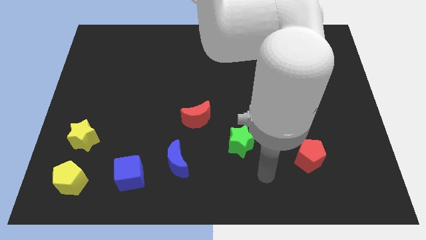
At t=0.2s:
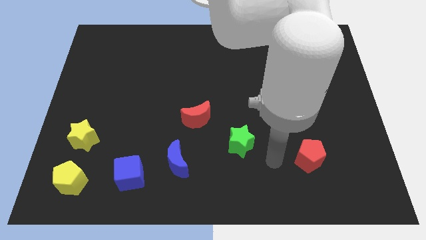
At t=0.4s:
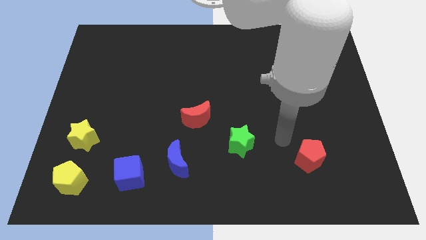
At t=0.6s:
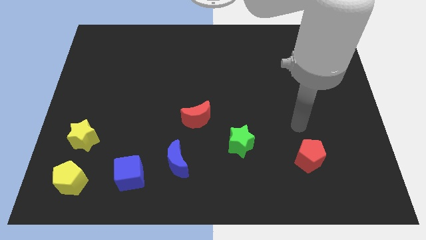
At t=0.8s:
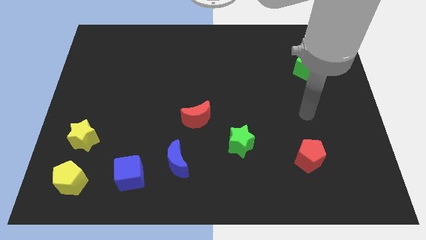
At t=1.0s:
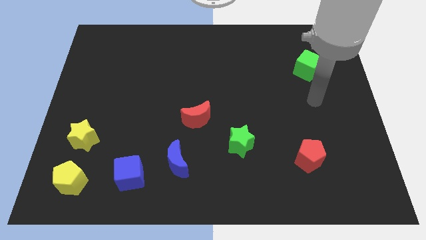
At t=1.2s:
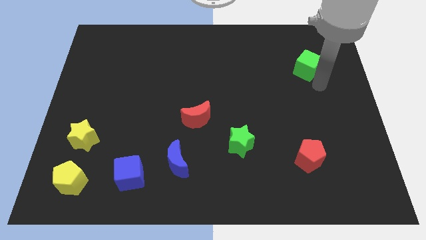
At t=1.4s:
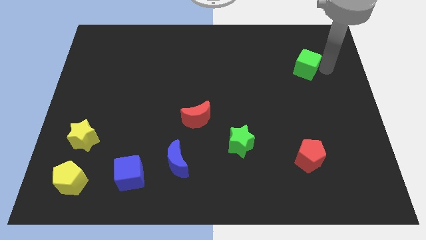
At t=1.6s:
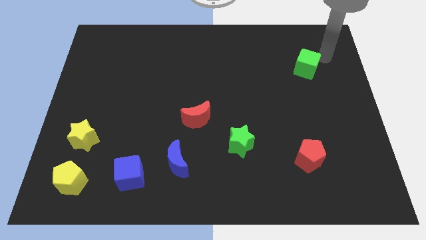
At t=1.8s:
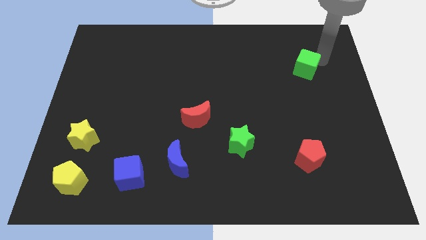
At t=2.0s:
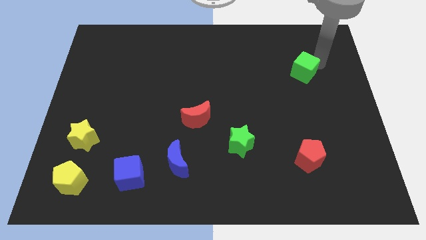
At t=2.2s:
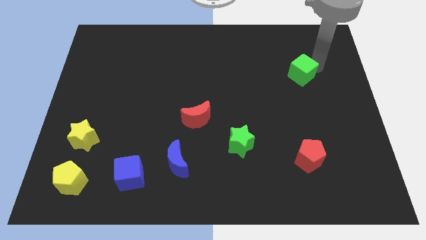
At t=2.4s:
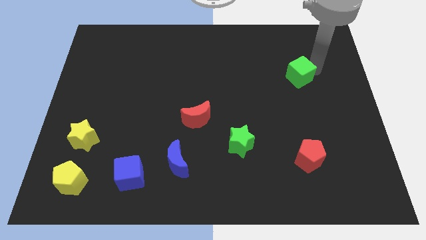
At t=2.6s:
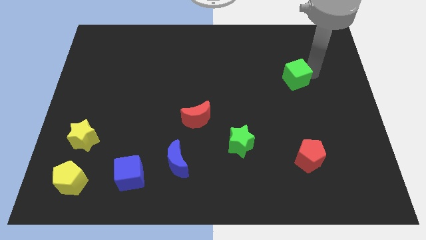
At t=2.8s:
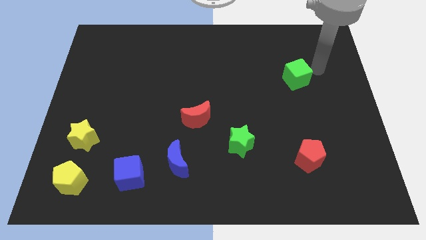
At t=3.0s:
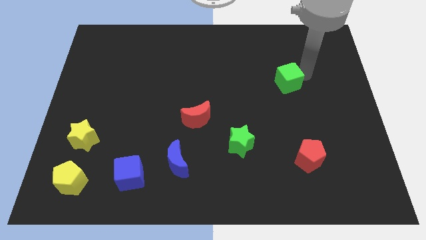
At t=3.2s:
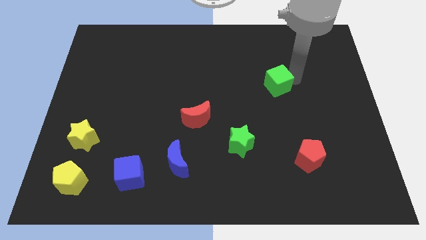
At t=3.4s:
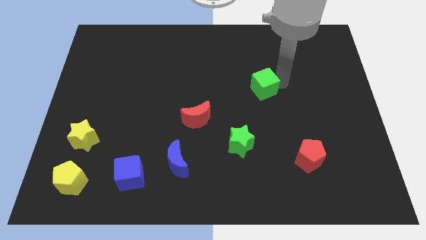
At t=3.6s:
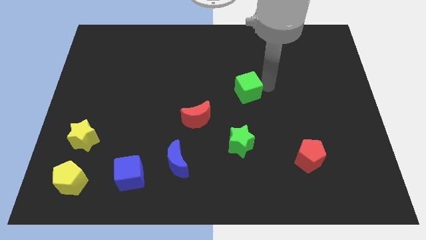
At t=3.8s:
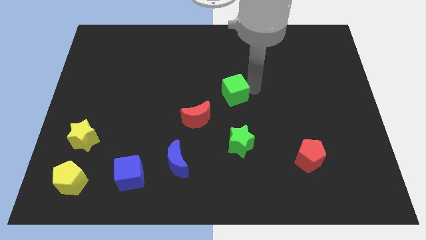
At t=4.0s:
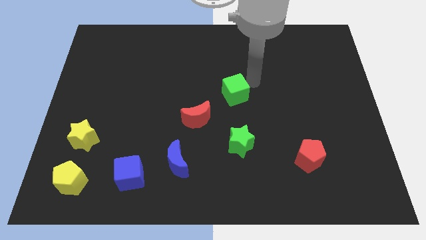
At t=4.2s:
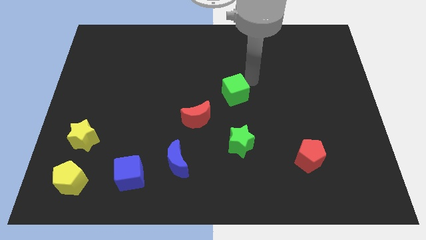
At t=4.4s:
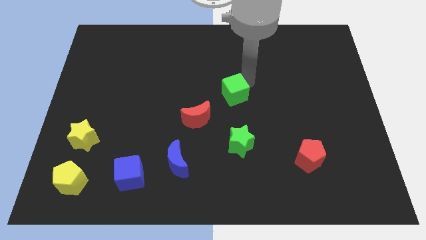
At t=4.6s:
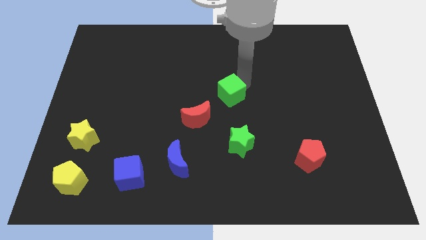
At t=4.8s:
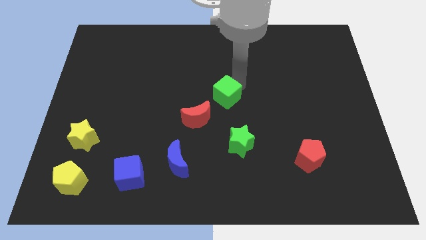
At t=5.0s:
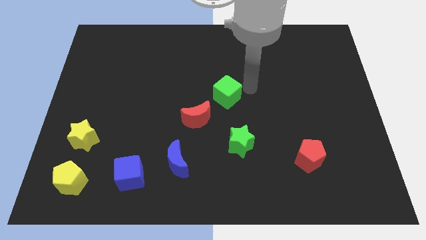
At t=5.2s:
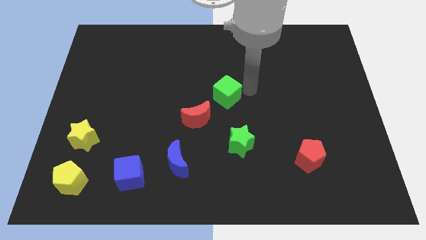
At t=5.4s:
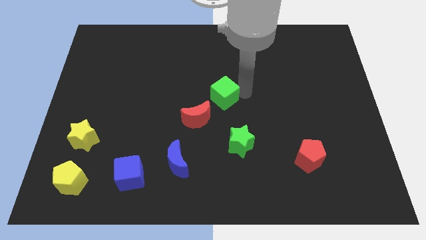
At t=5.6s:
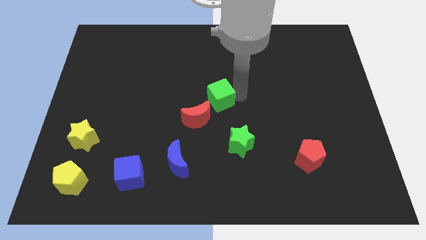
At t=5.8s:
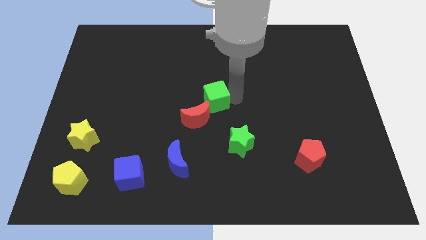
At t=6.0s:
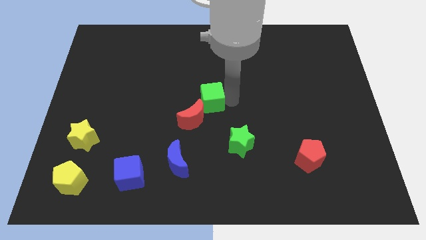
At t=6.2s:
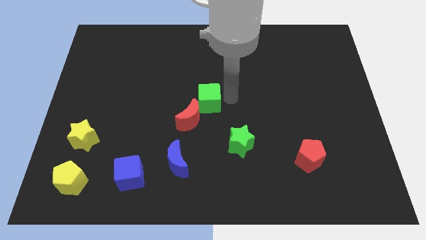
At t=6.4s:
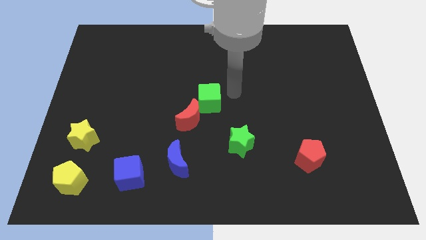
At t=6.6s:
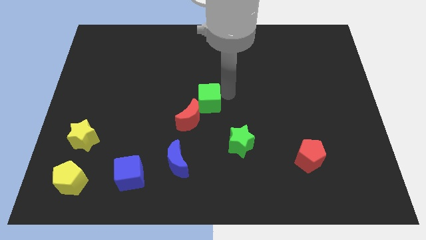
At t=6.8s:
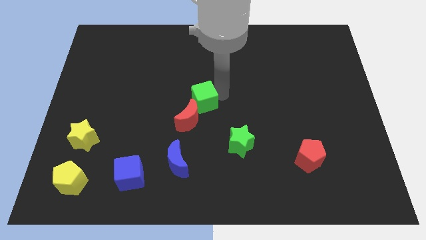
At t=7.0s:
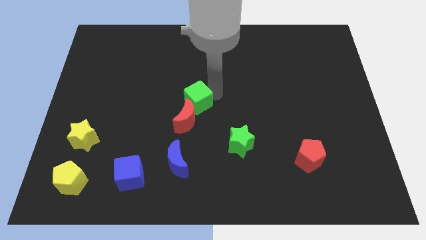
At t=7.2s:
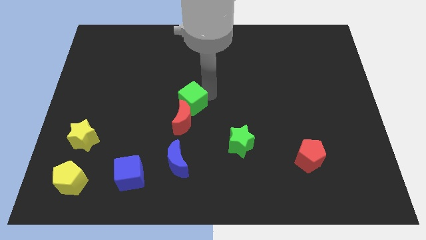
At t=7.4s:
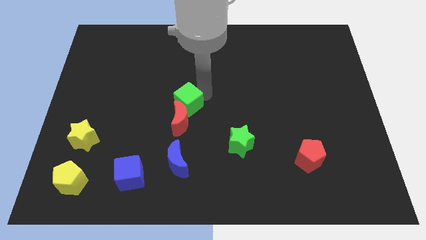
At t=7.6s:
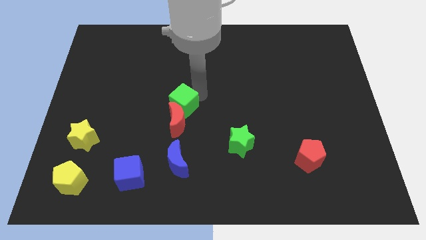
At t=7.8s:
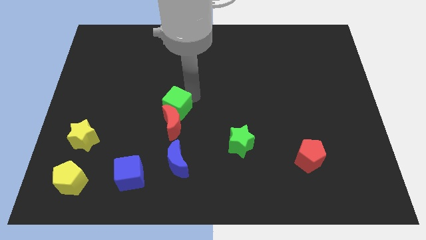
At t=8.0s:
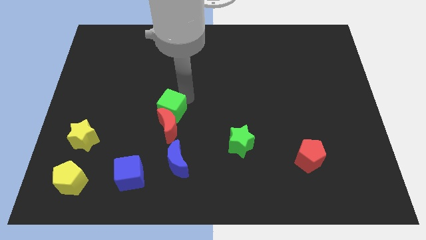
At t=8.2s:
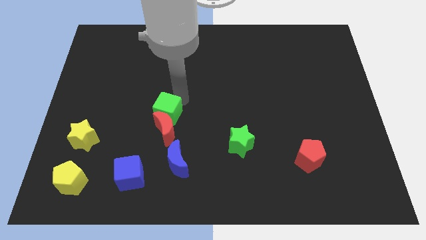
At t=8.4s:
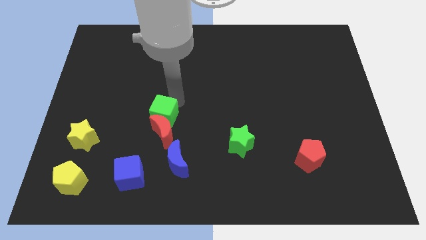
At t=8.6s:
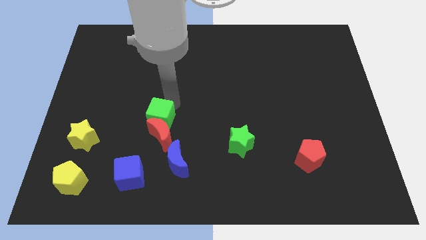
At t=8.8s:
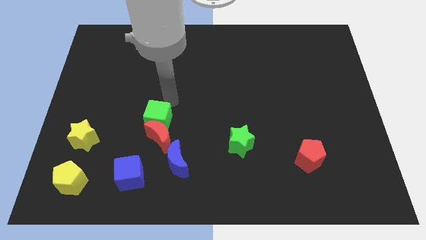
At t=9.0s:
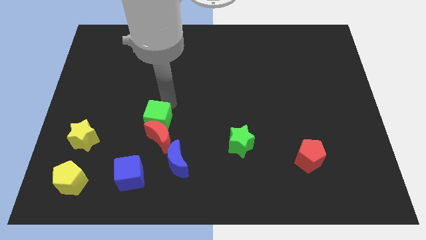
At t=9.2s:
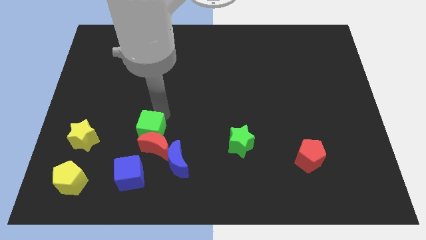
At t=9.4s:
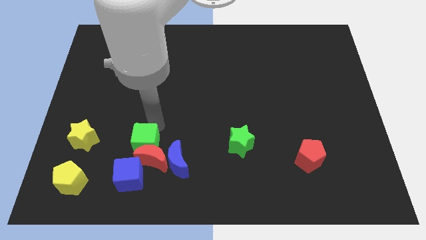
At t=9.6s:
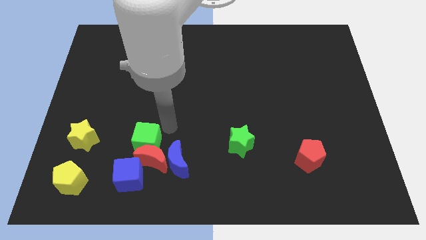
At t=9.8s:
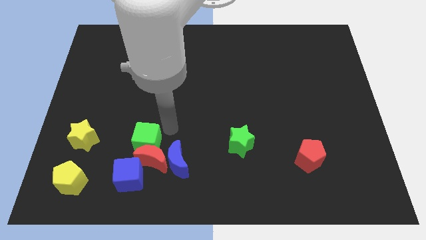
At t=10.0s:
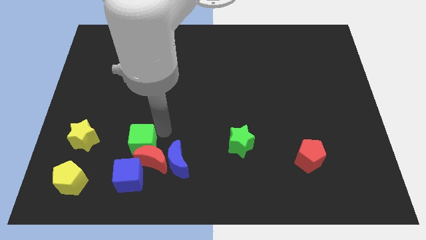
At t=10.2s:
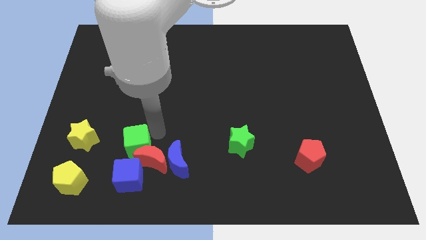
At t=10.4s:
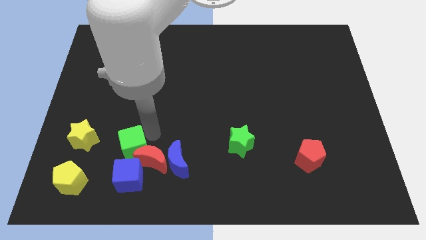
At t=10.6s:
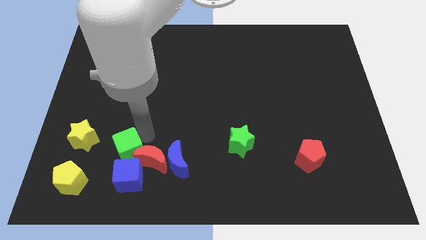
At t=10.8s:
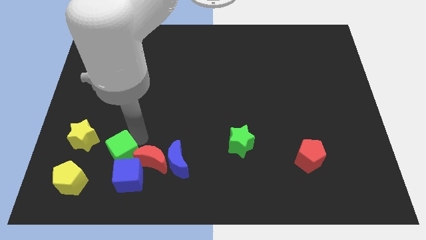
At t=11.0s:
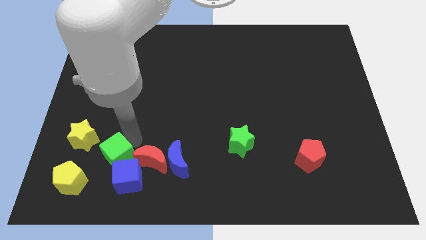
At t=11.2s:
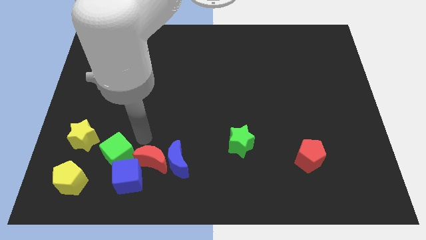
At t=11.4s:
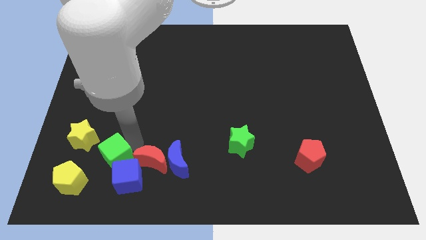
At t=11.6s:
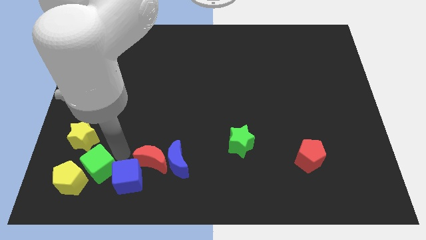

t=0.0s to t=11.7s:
push the green cube next to the yellow pentagon

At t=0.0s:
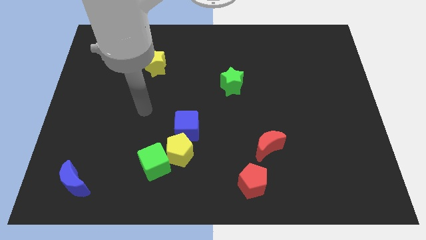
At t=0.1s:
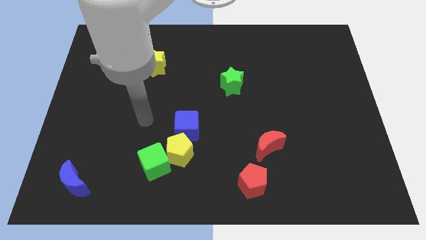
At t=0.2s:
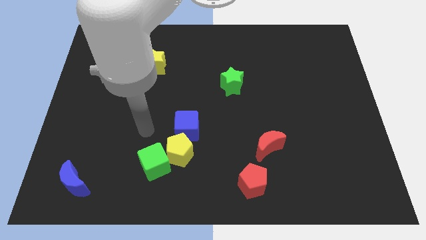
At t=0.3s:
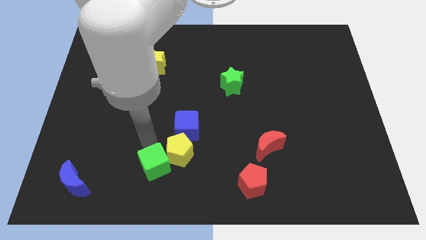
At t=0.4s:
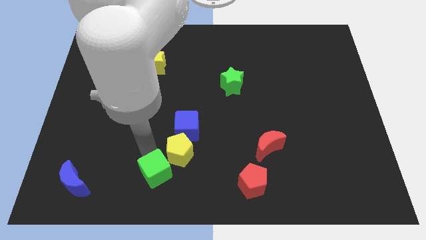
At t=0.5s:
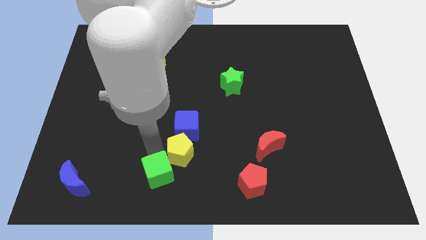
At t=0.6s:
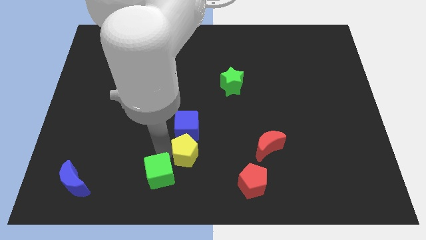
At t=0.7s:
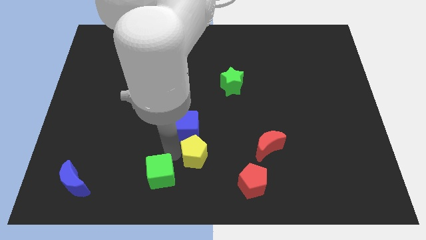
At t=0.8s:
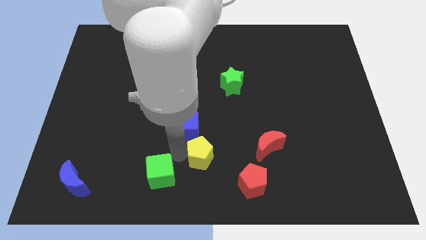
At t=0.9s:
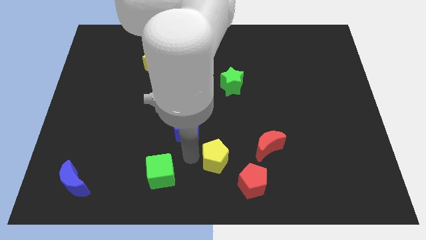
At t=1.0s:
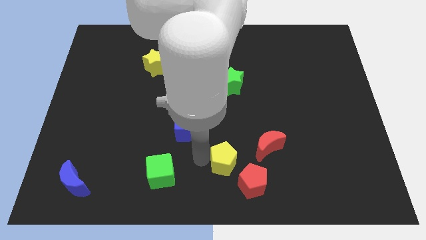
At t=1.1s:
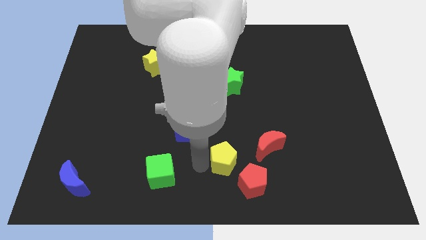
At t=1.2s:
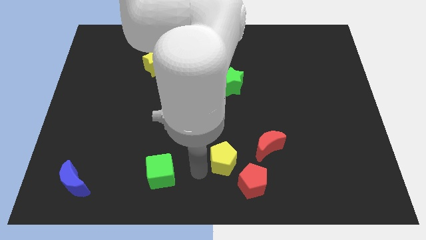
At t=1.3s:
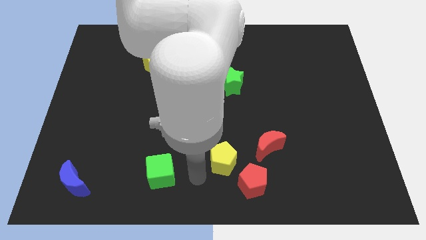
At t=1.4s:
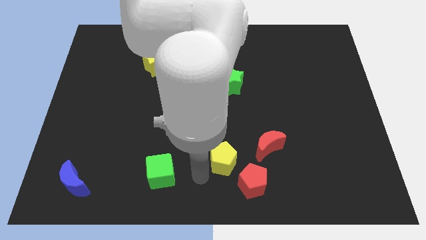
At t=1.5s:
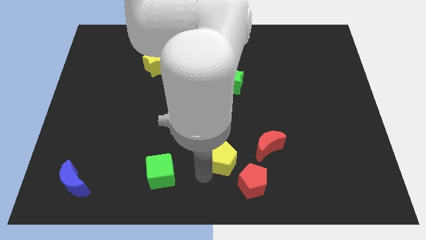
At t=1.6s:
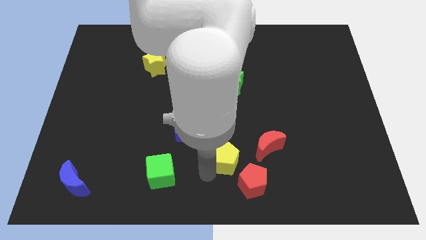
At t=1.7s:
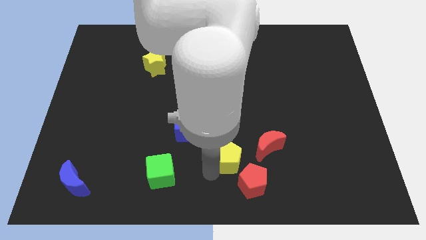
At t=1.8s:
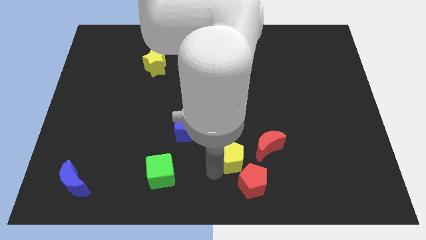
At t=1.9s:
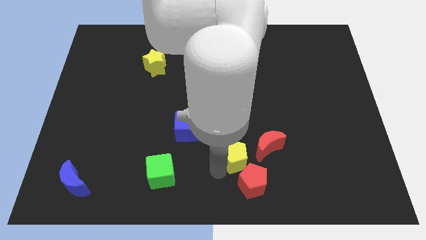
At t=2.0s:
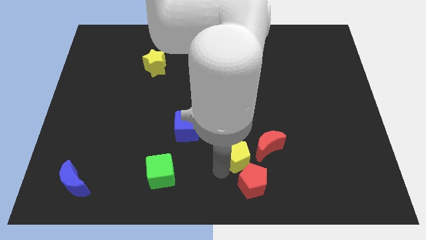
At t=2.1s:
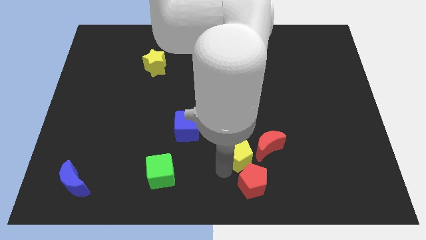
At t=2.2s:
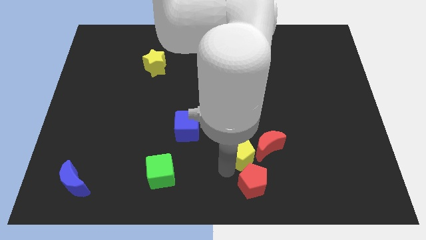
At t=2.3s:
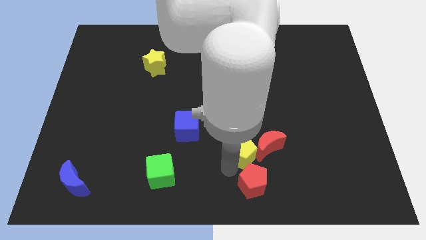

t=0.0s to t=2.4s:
put the yellow pentagon to the red moon
